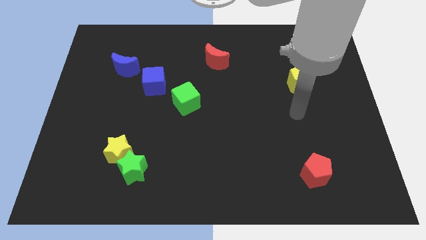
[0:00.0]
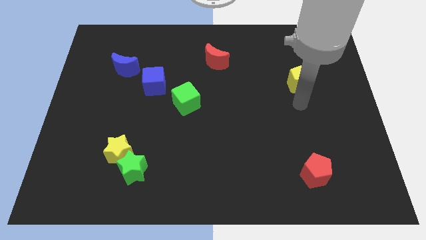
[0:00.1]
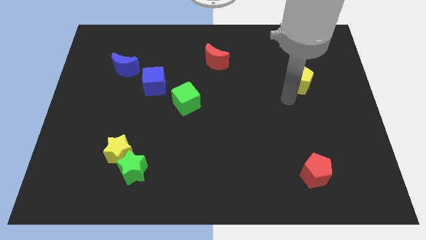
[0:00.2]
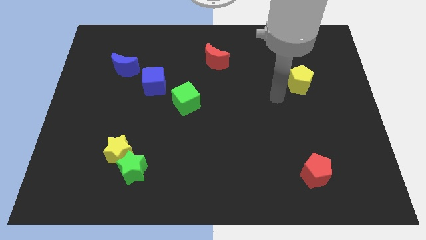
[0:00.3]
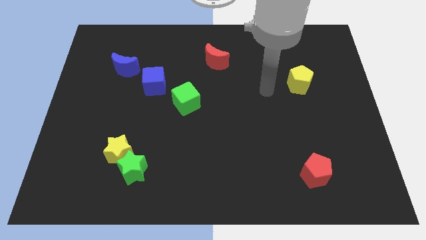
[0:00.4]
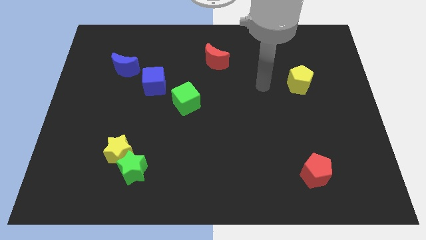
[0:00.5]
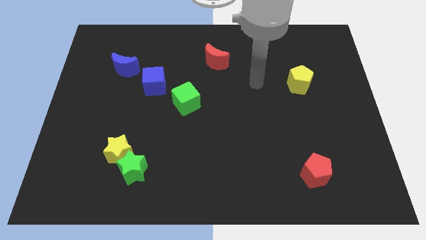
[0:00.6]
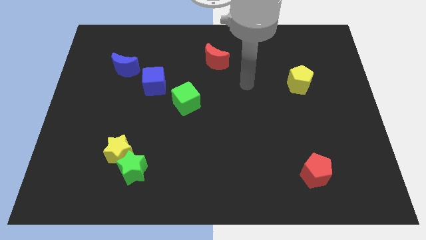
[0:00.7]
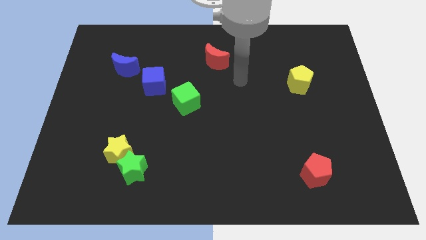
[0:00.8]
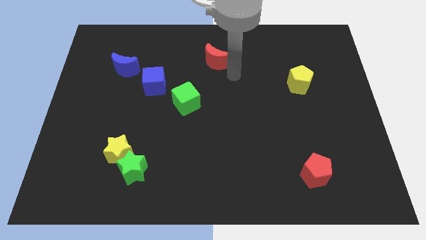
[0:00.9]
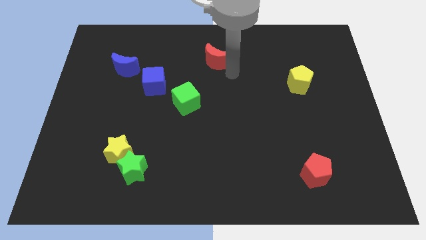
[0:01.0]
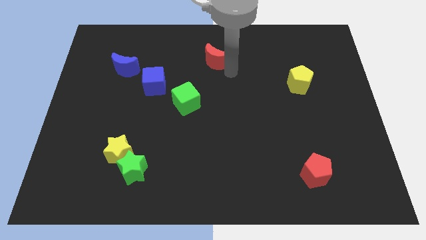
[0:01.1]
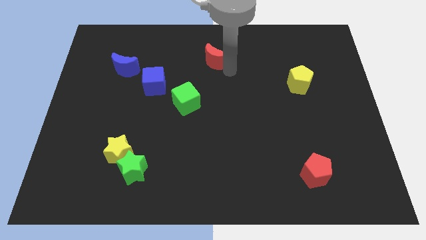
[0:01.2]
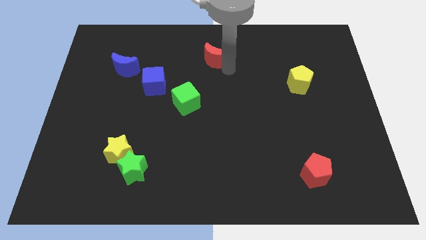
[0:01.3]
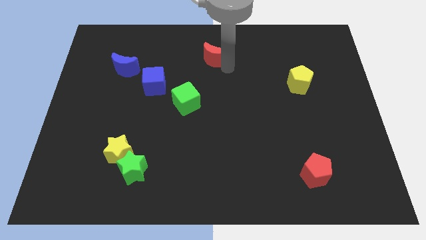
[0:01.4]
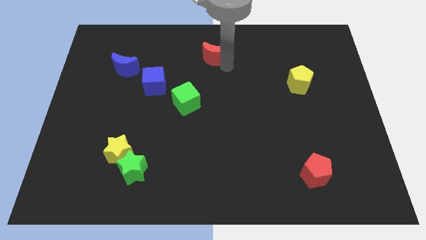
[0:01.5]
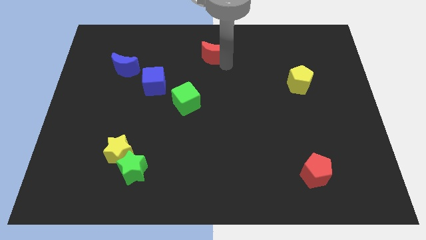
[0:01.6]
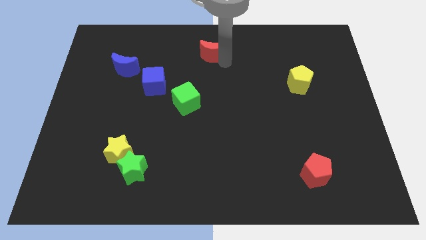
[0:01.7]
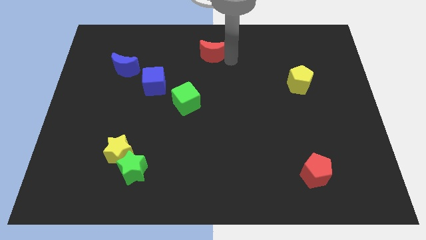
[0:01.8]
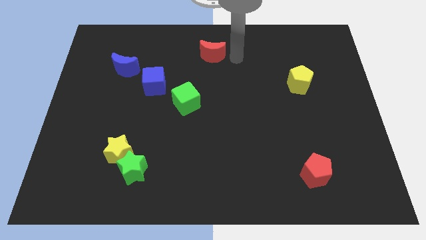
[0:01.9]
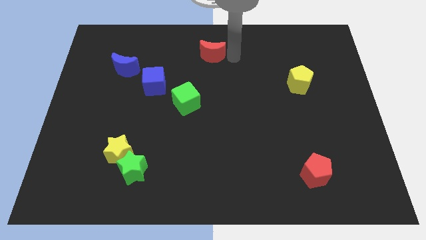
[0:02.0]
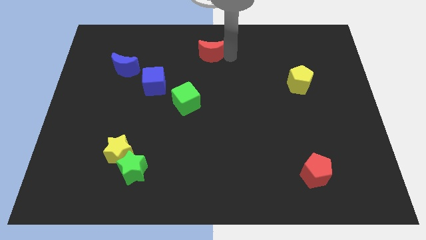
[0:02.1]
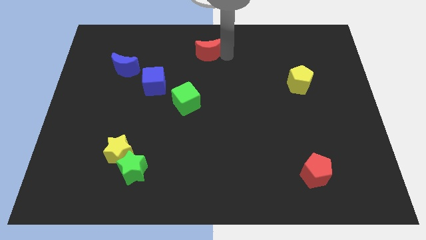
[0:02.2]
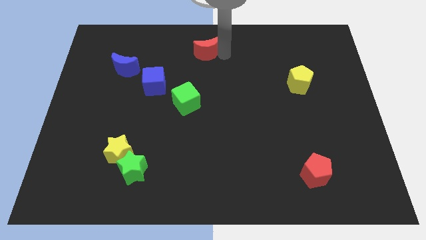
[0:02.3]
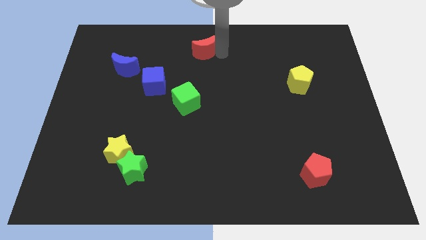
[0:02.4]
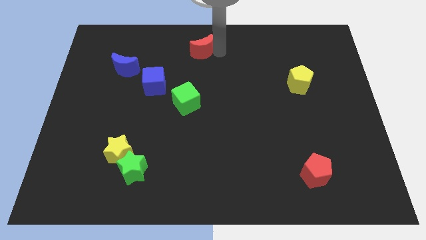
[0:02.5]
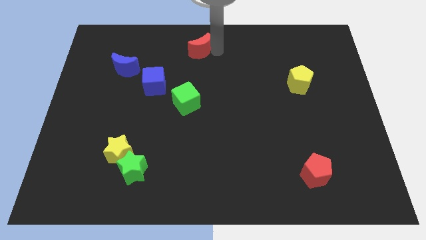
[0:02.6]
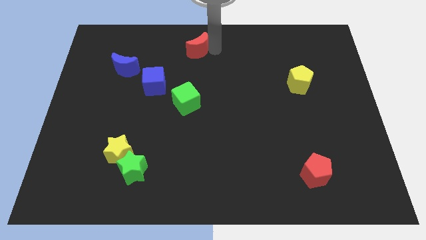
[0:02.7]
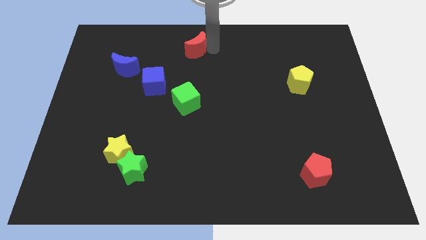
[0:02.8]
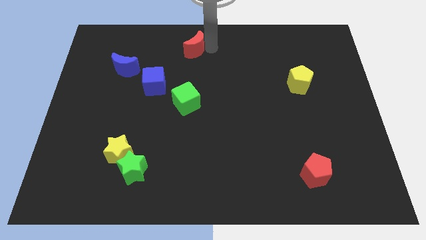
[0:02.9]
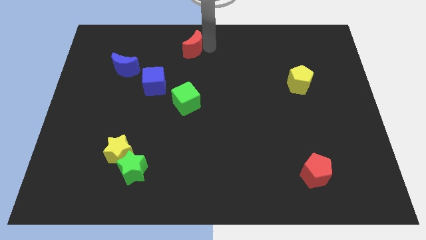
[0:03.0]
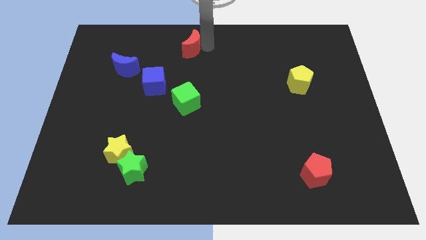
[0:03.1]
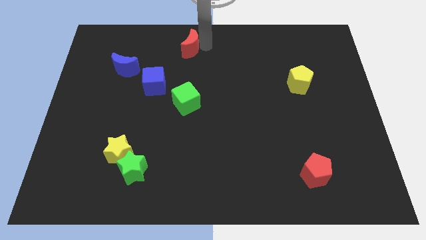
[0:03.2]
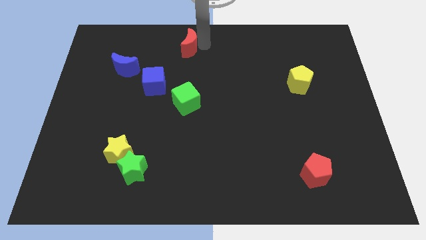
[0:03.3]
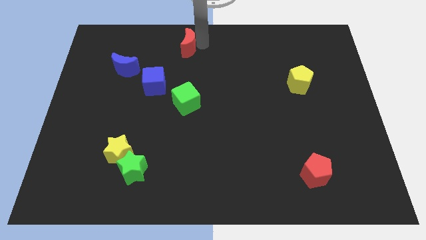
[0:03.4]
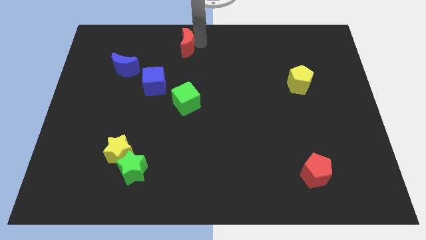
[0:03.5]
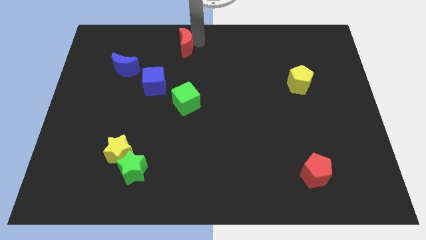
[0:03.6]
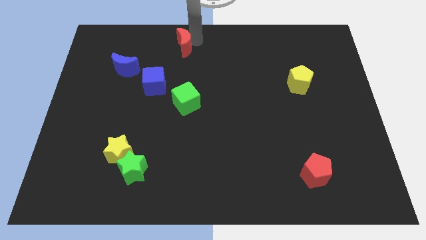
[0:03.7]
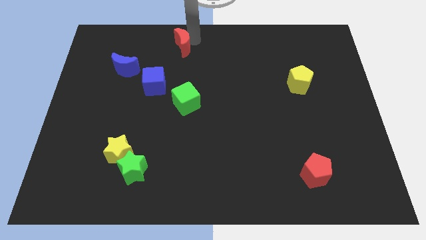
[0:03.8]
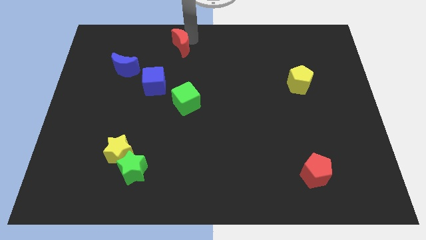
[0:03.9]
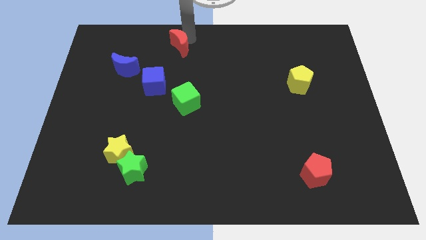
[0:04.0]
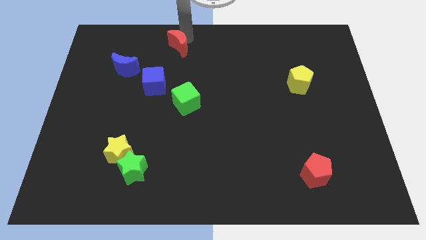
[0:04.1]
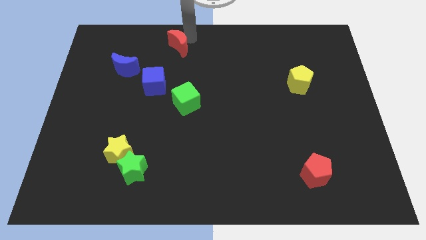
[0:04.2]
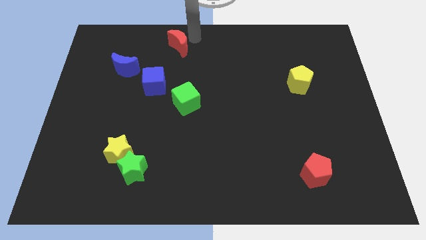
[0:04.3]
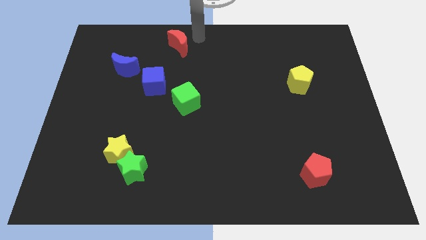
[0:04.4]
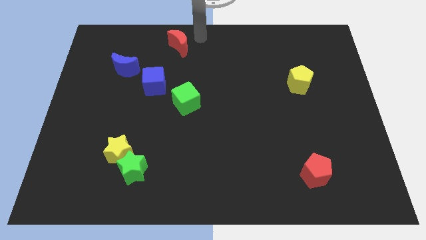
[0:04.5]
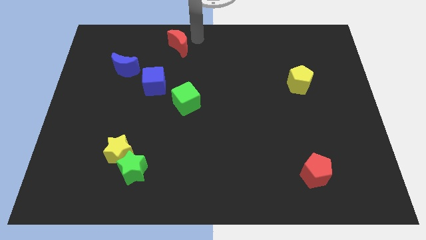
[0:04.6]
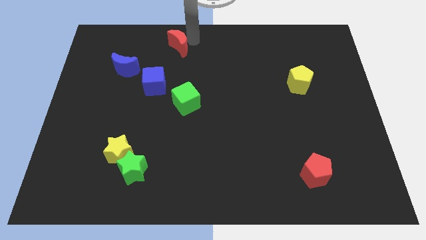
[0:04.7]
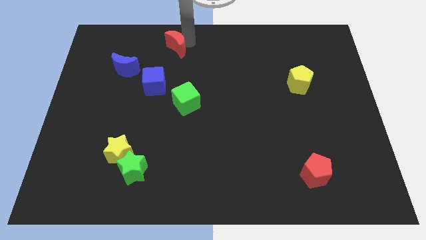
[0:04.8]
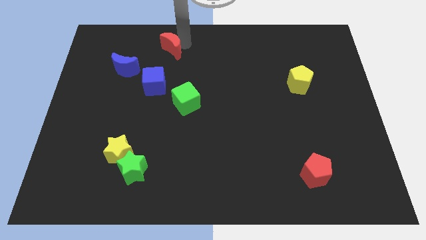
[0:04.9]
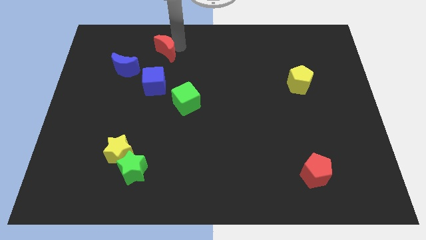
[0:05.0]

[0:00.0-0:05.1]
move the red moon diagonally up and to the right of the blue moon

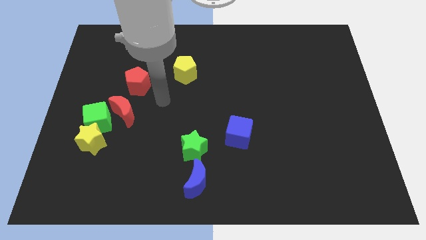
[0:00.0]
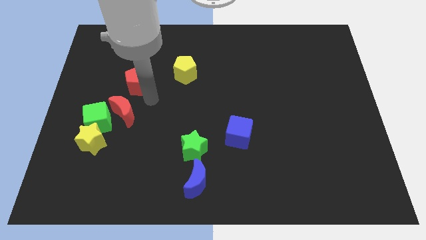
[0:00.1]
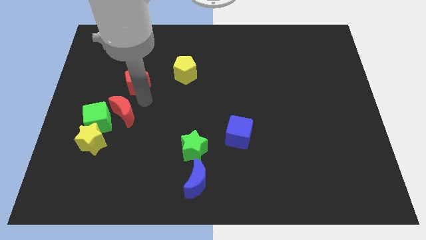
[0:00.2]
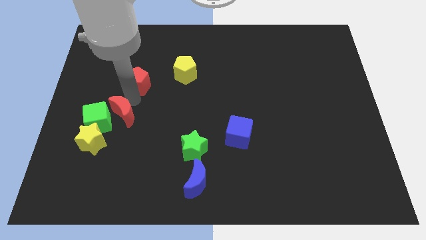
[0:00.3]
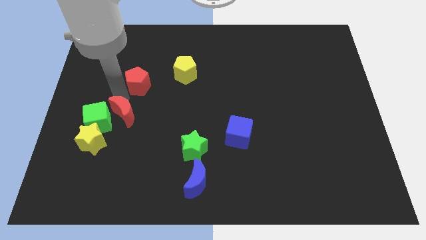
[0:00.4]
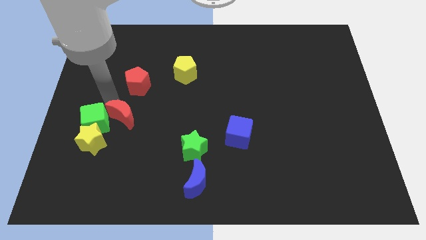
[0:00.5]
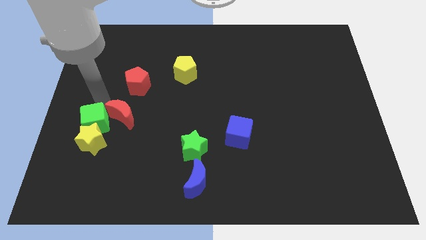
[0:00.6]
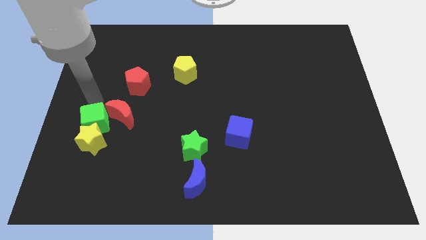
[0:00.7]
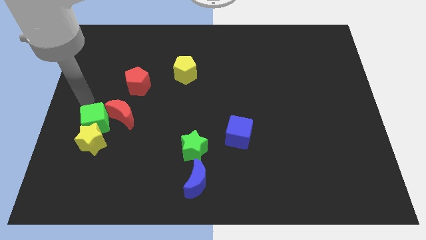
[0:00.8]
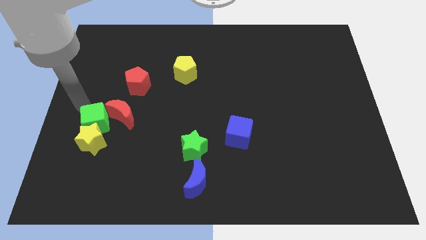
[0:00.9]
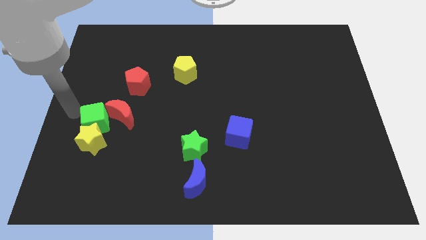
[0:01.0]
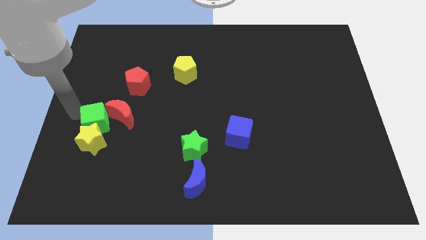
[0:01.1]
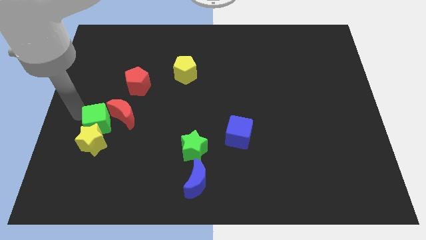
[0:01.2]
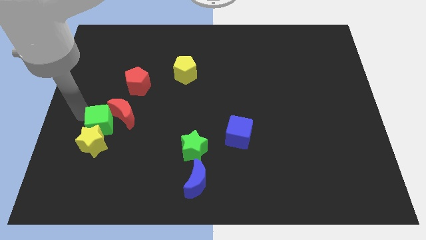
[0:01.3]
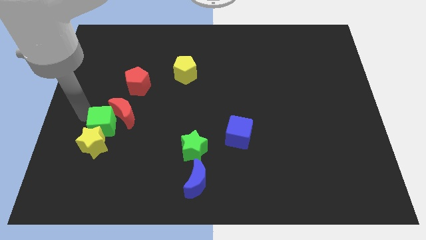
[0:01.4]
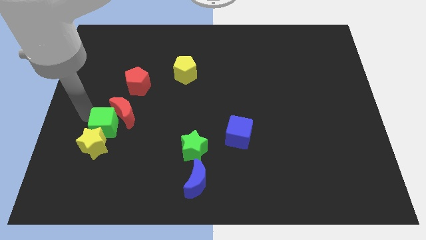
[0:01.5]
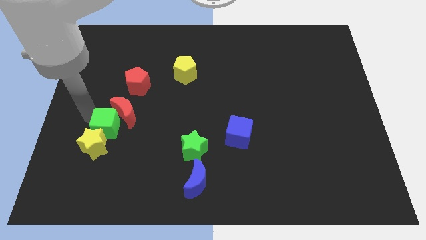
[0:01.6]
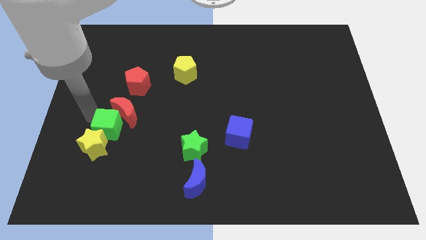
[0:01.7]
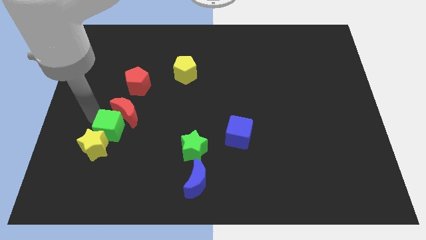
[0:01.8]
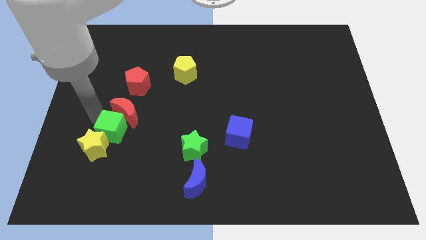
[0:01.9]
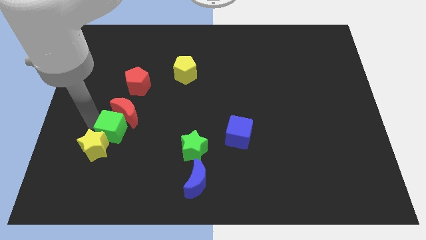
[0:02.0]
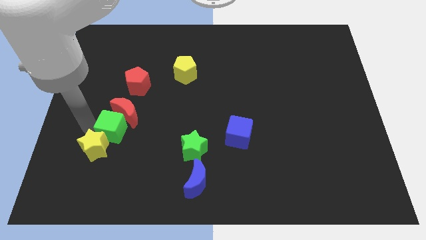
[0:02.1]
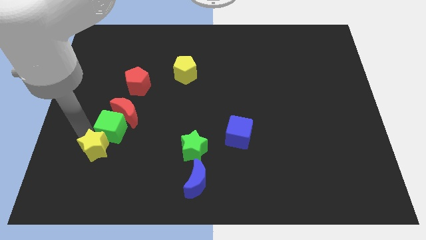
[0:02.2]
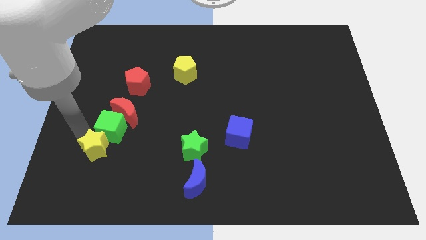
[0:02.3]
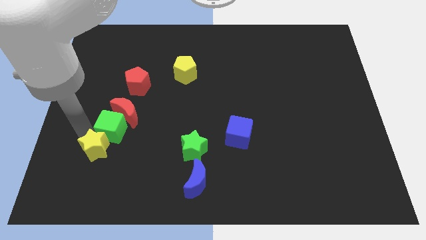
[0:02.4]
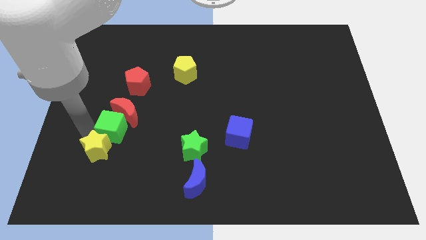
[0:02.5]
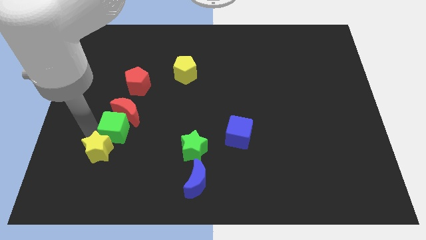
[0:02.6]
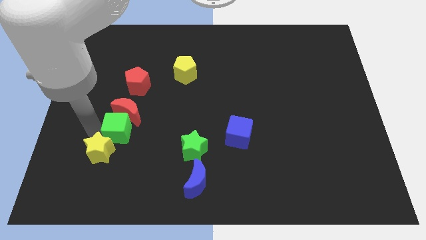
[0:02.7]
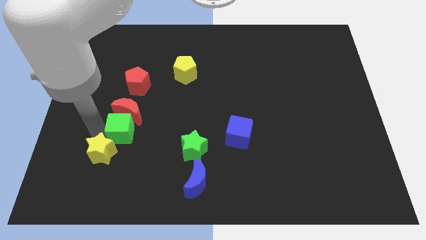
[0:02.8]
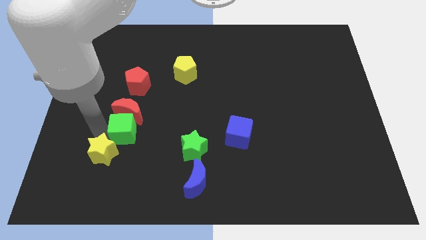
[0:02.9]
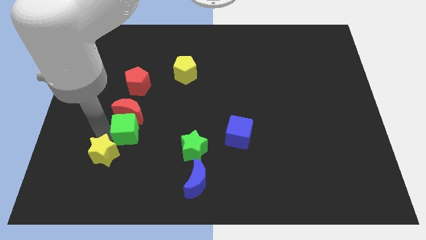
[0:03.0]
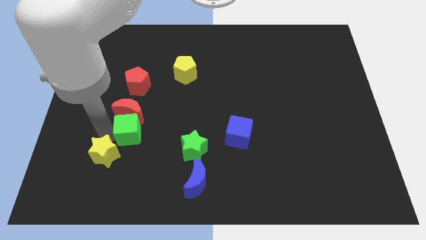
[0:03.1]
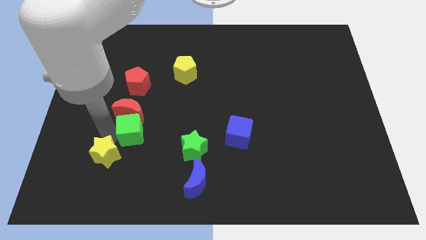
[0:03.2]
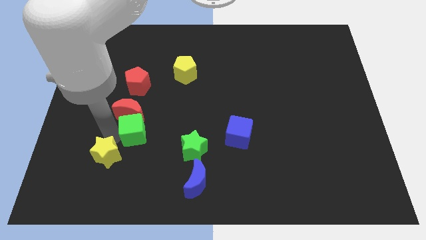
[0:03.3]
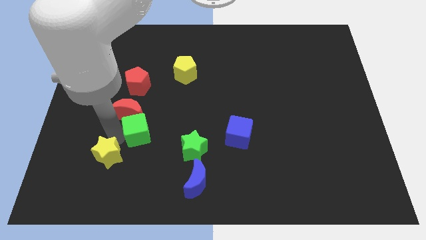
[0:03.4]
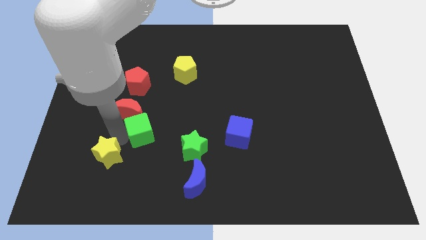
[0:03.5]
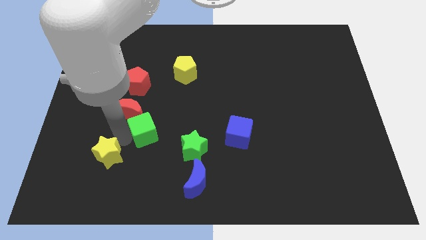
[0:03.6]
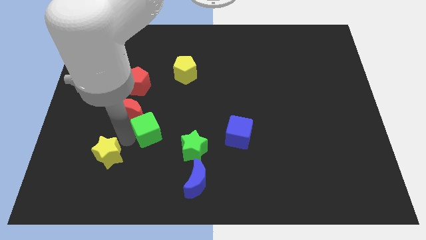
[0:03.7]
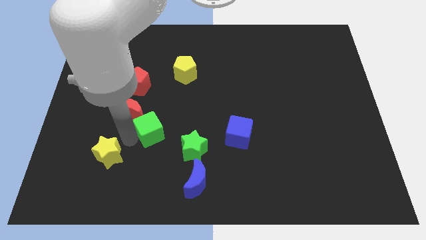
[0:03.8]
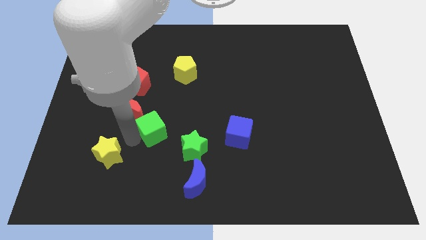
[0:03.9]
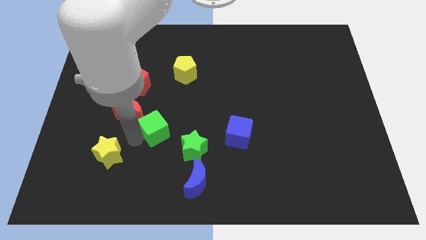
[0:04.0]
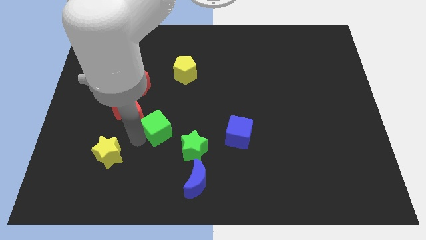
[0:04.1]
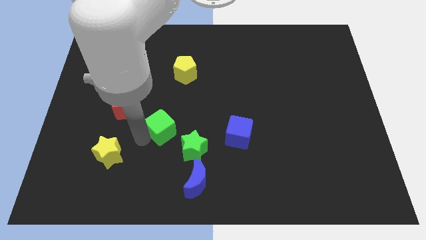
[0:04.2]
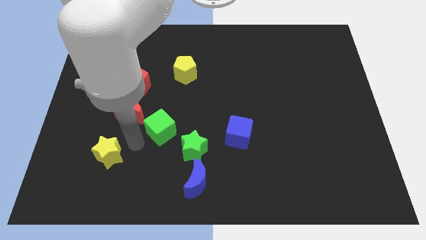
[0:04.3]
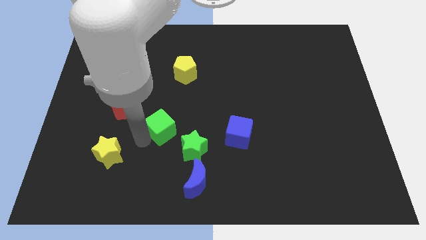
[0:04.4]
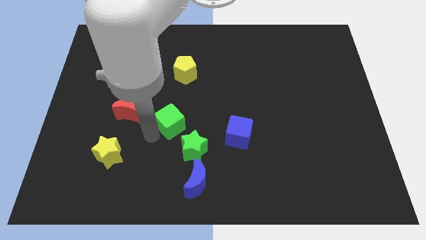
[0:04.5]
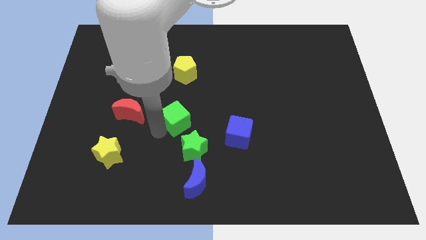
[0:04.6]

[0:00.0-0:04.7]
push the green cube to the top side of the green star
